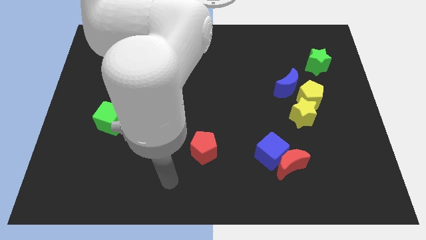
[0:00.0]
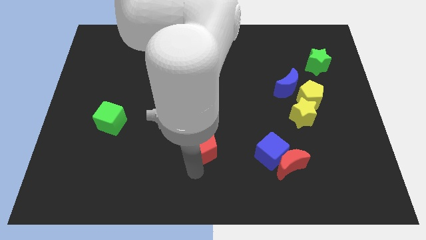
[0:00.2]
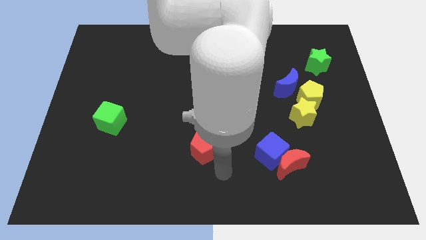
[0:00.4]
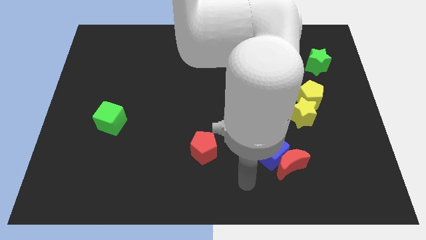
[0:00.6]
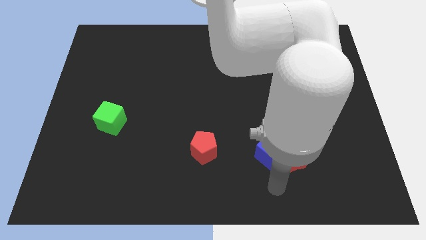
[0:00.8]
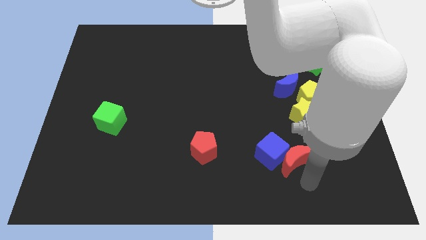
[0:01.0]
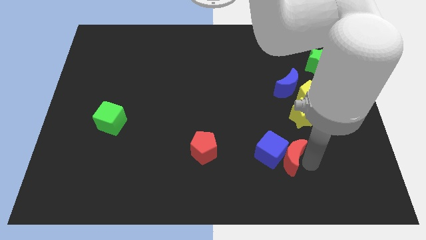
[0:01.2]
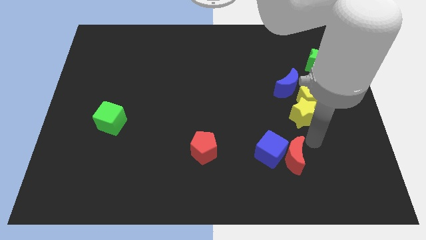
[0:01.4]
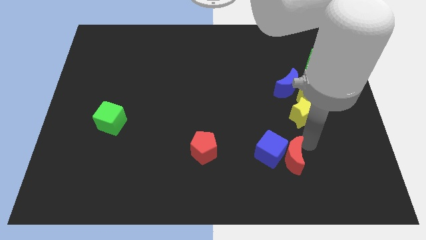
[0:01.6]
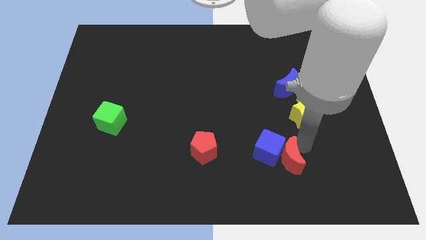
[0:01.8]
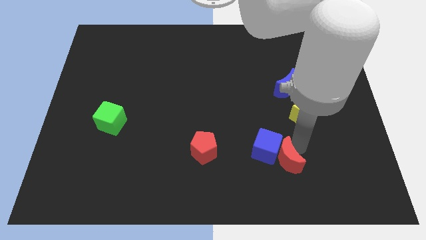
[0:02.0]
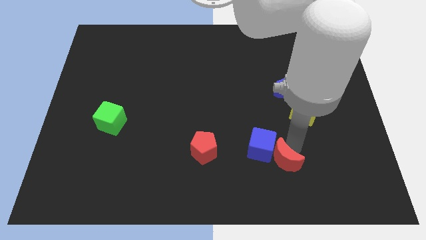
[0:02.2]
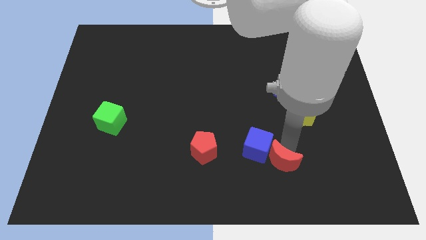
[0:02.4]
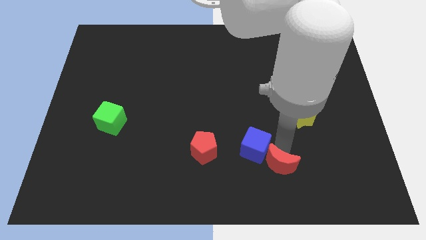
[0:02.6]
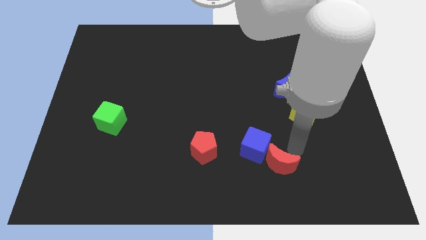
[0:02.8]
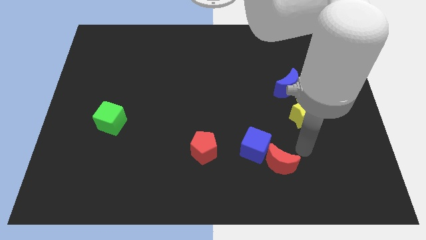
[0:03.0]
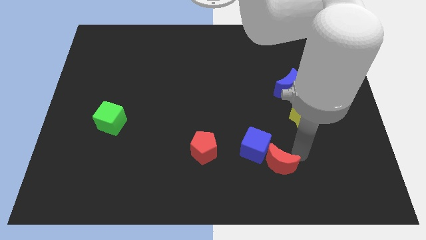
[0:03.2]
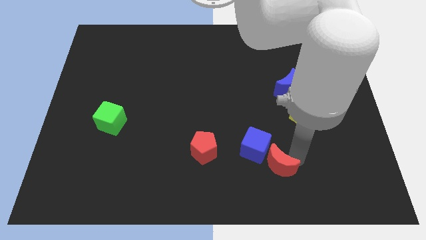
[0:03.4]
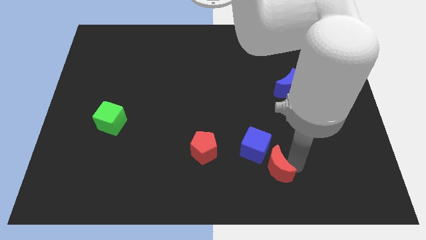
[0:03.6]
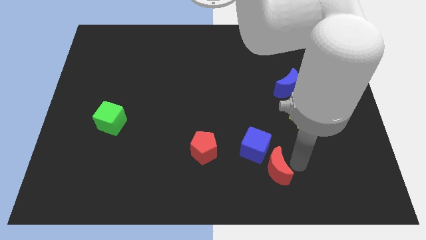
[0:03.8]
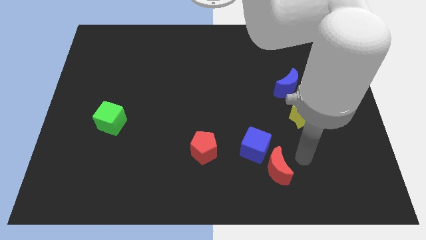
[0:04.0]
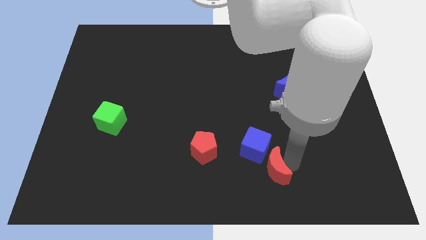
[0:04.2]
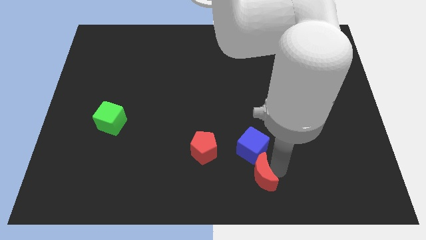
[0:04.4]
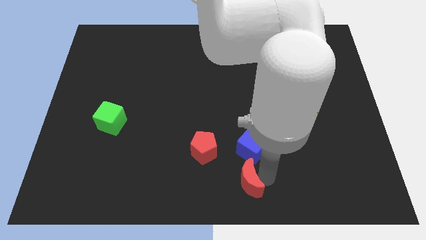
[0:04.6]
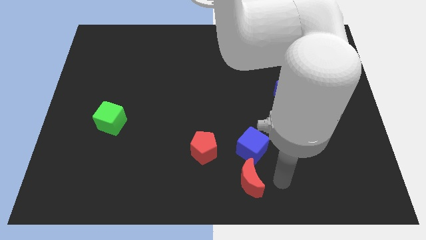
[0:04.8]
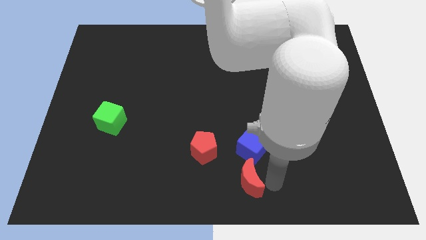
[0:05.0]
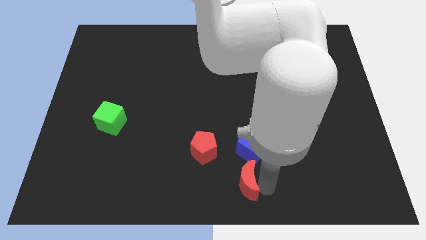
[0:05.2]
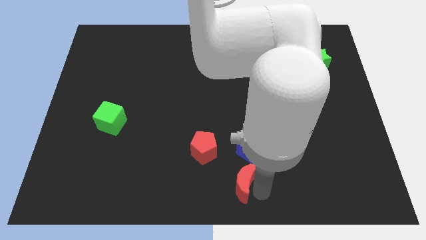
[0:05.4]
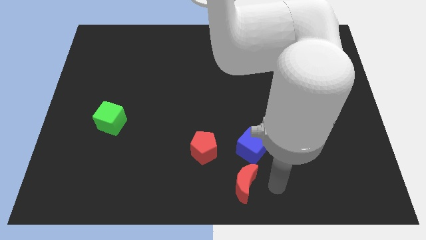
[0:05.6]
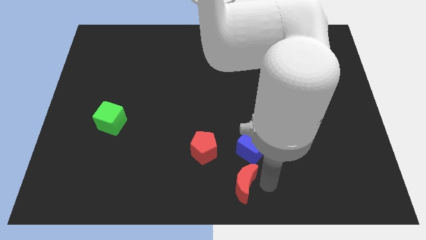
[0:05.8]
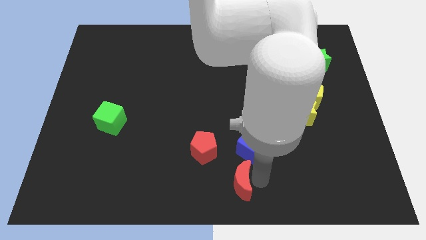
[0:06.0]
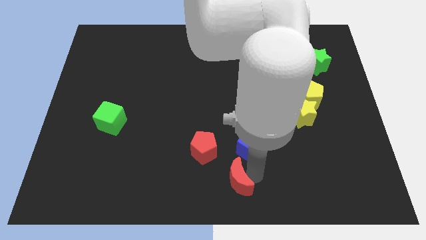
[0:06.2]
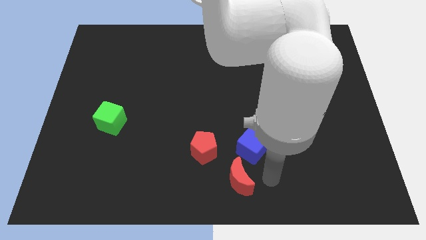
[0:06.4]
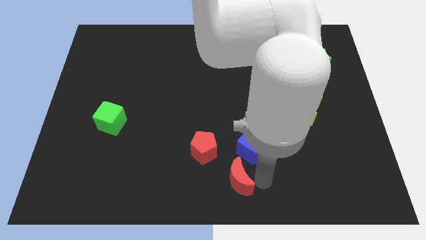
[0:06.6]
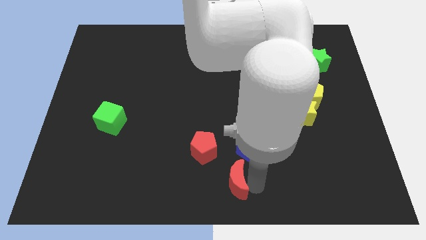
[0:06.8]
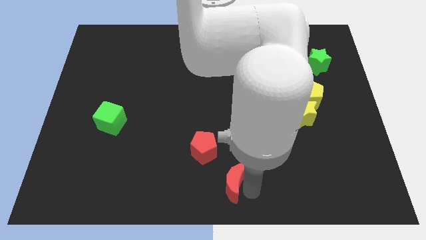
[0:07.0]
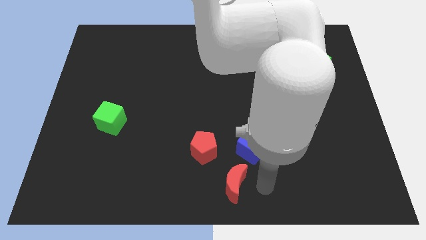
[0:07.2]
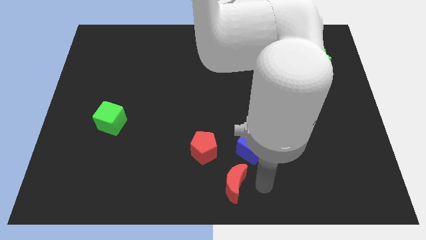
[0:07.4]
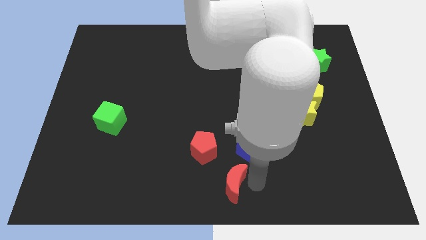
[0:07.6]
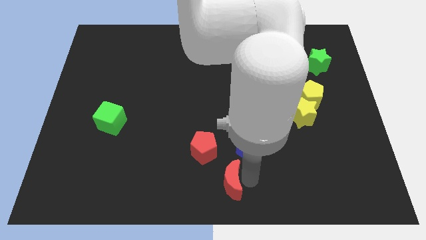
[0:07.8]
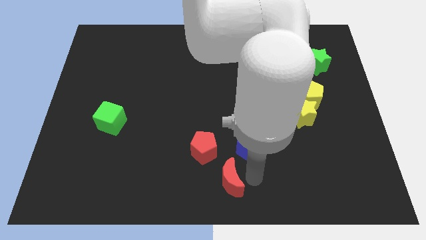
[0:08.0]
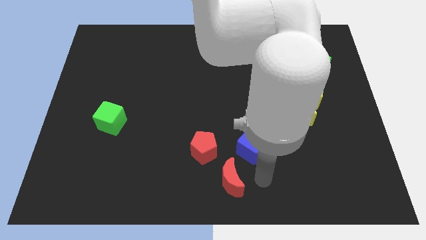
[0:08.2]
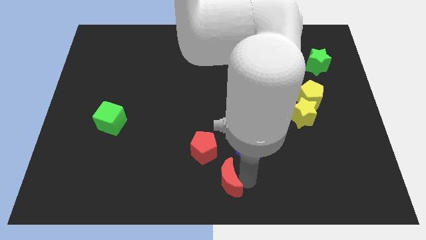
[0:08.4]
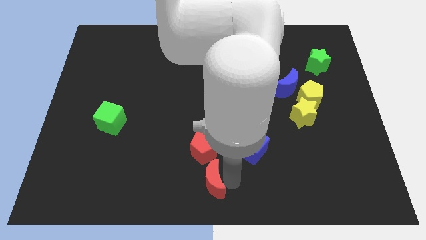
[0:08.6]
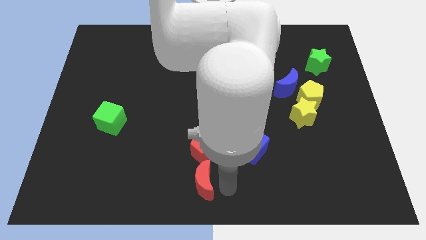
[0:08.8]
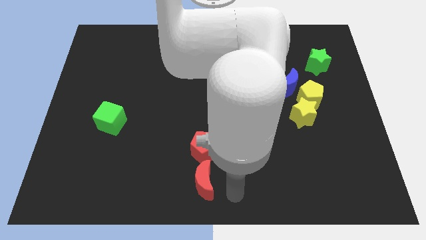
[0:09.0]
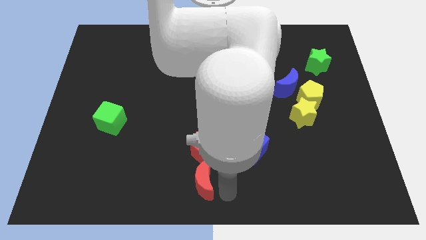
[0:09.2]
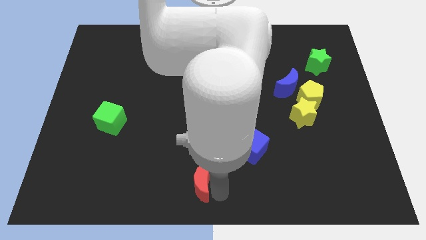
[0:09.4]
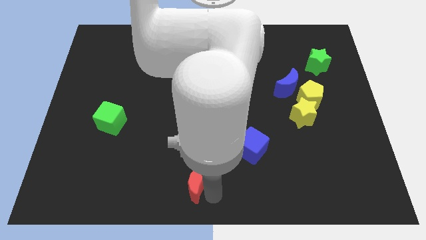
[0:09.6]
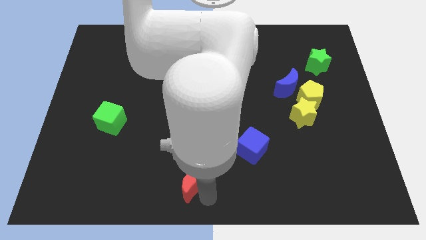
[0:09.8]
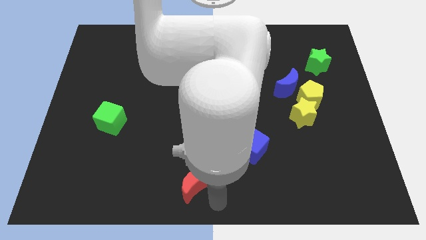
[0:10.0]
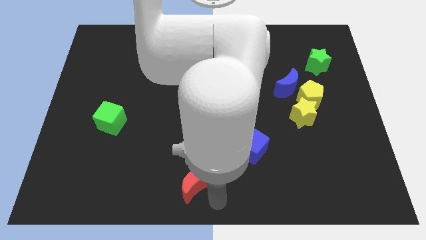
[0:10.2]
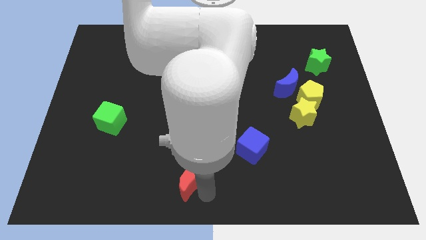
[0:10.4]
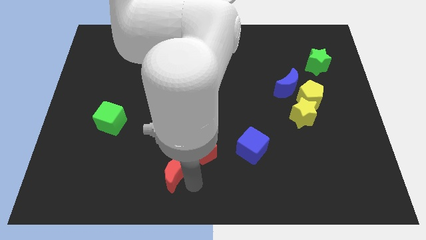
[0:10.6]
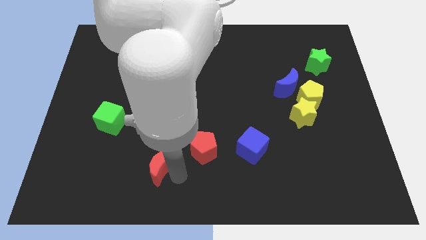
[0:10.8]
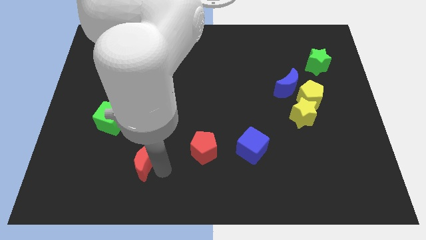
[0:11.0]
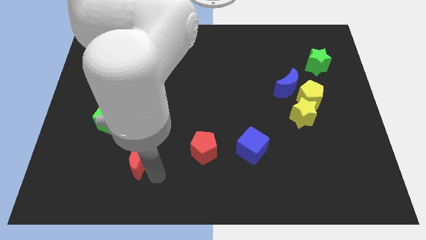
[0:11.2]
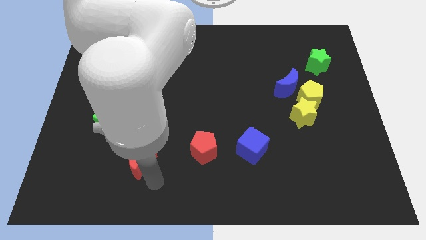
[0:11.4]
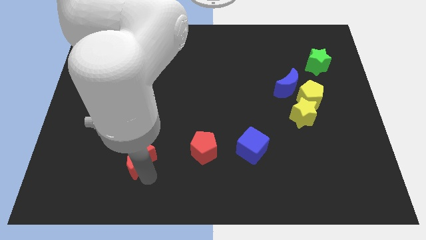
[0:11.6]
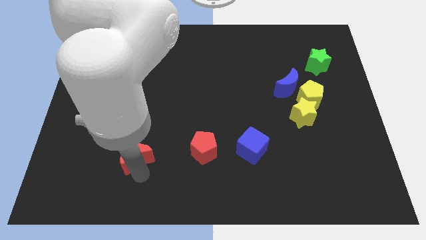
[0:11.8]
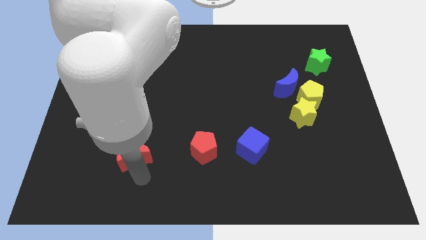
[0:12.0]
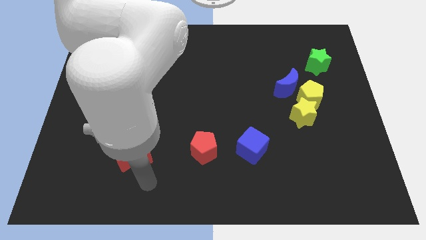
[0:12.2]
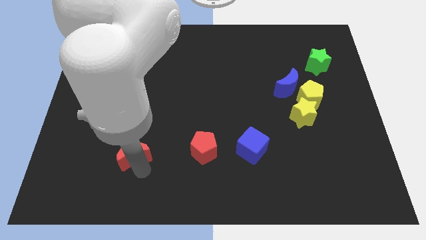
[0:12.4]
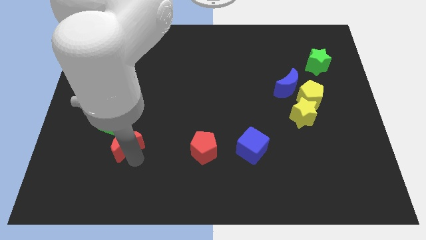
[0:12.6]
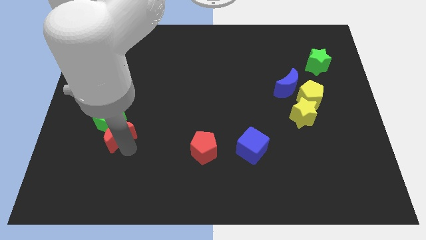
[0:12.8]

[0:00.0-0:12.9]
put the red moon close to the green cube

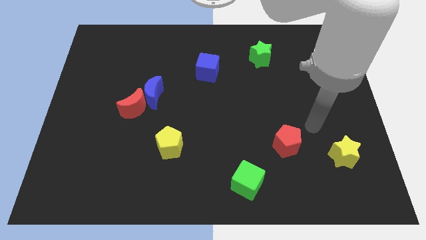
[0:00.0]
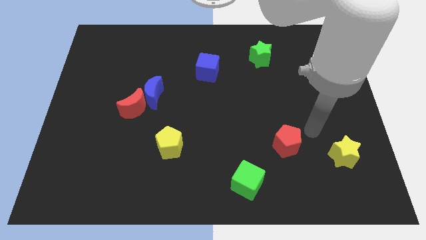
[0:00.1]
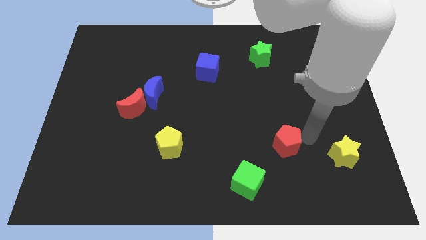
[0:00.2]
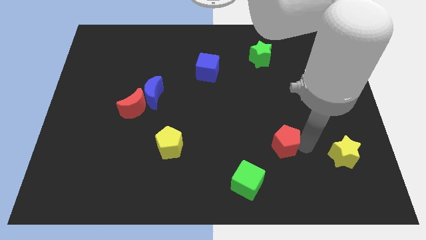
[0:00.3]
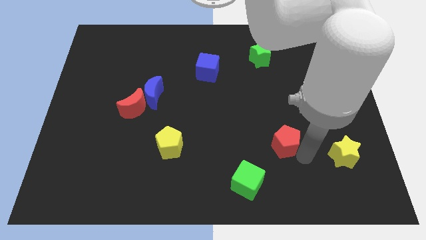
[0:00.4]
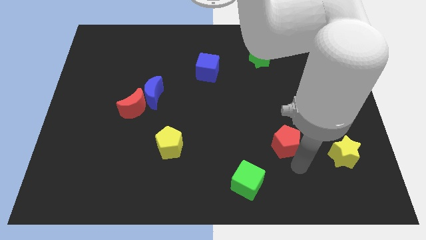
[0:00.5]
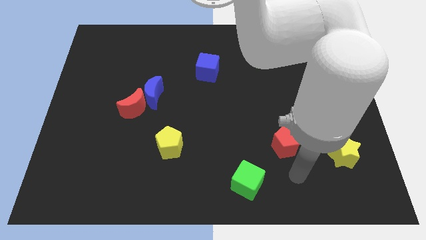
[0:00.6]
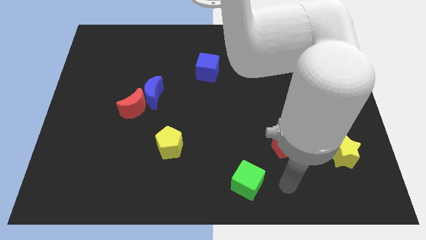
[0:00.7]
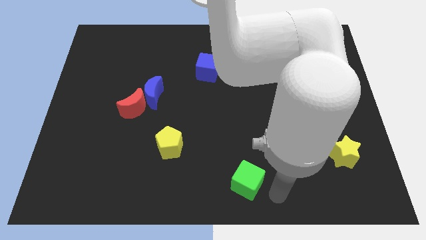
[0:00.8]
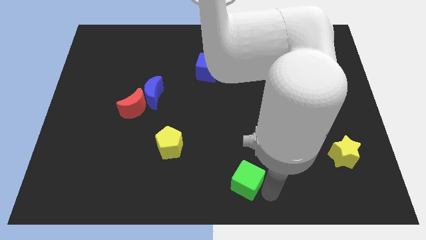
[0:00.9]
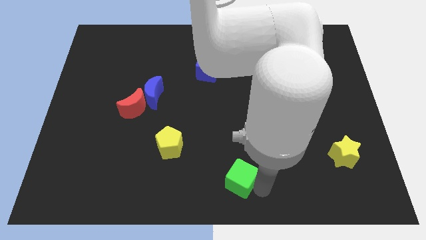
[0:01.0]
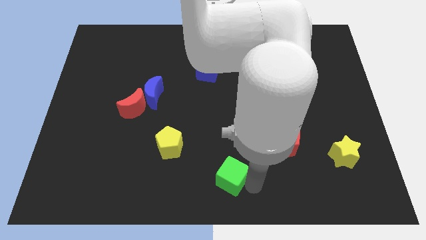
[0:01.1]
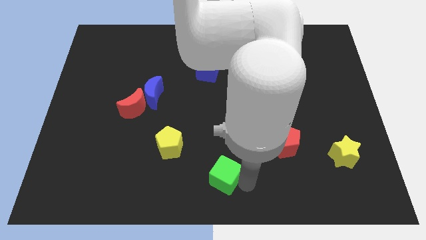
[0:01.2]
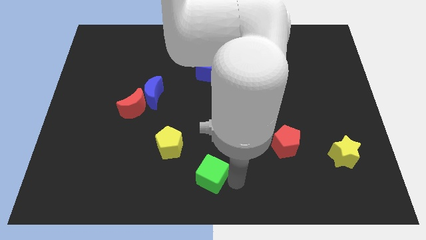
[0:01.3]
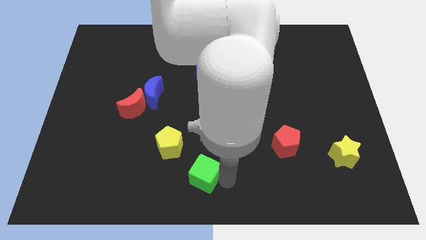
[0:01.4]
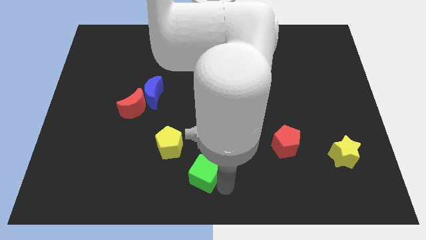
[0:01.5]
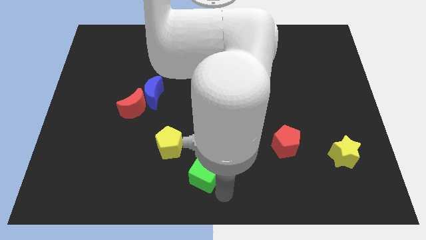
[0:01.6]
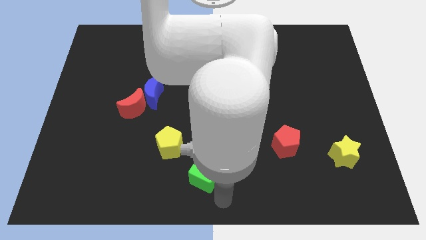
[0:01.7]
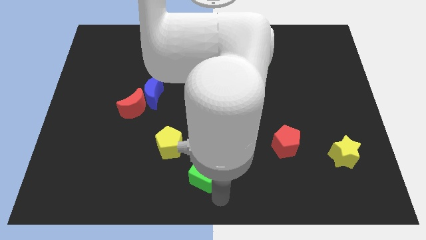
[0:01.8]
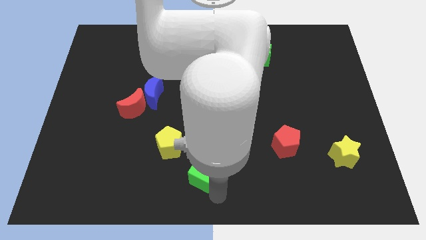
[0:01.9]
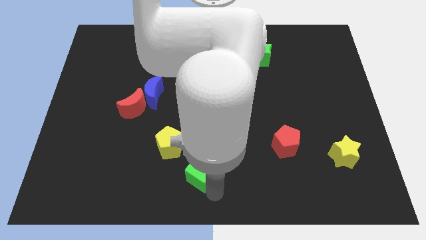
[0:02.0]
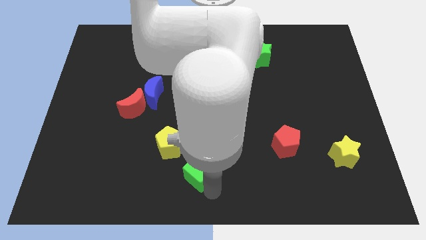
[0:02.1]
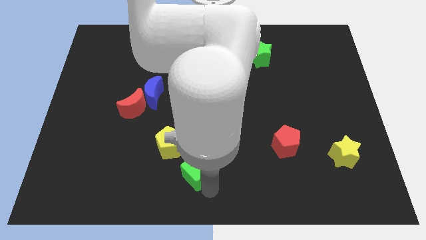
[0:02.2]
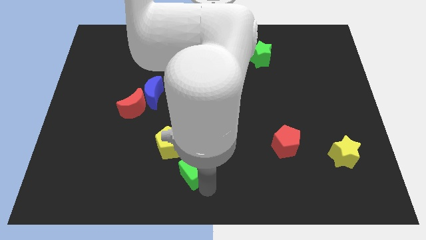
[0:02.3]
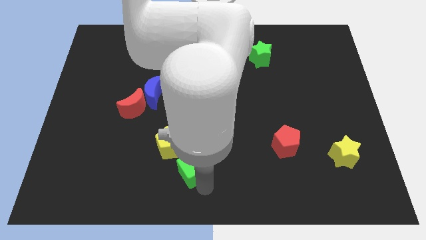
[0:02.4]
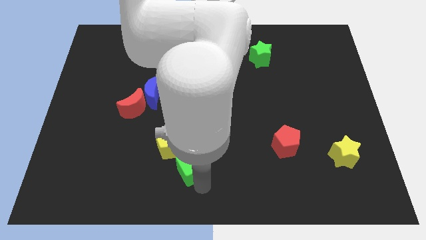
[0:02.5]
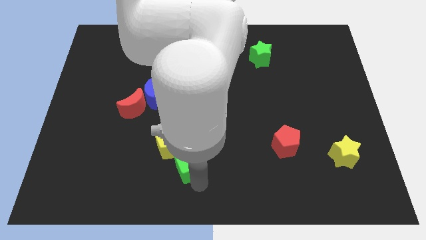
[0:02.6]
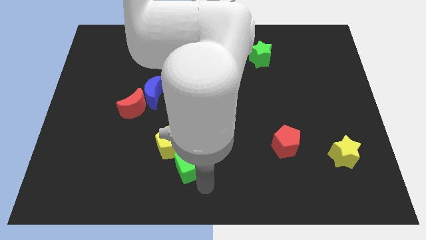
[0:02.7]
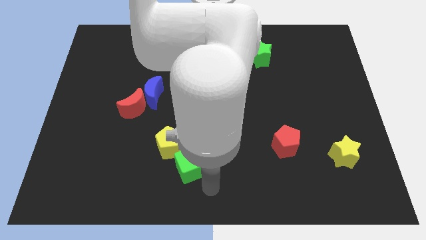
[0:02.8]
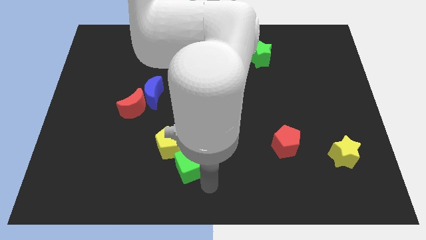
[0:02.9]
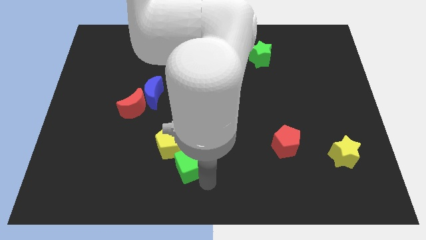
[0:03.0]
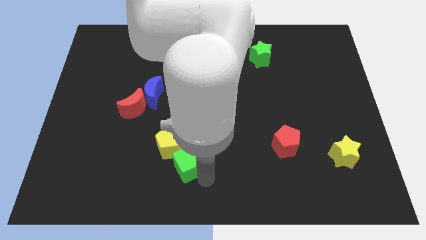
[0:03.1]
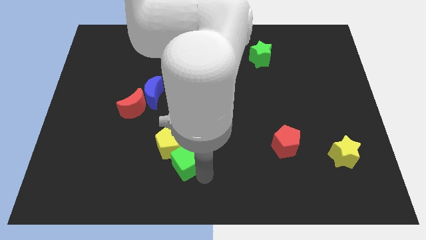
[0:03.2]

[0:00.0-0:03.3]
move the green cube close to the yellow pentagon
